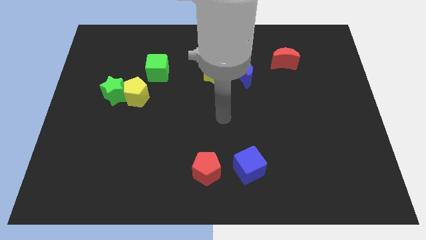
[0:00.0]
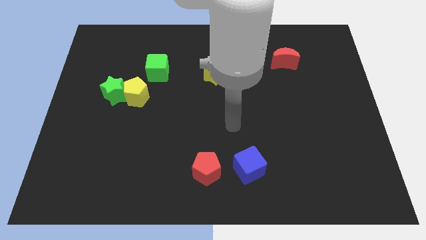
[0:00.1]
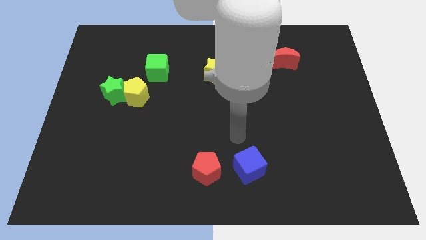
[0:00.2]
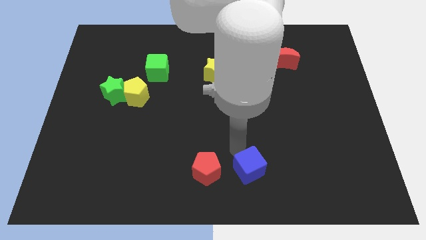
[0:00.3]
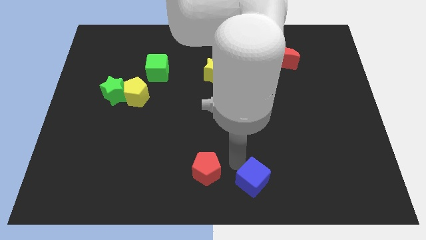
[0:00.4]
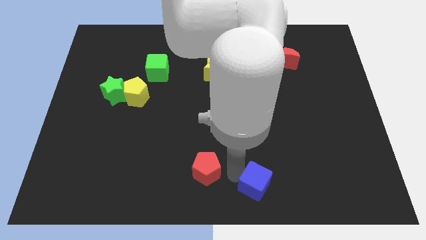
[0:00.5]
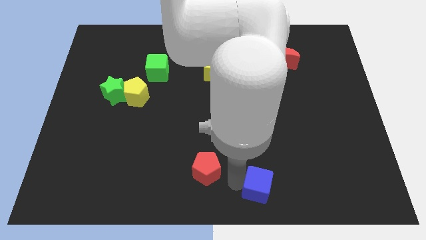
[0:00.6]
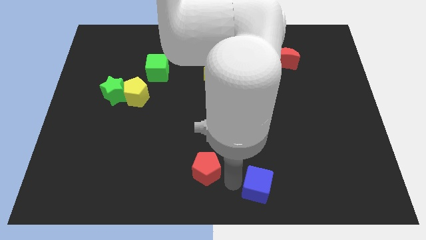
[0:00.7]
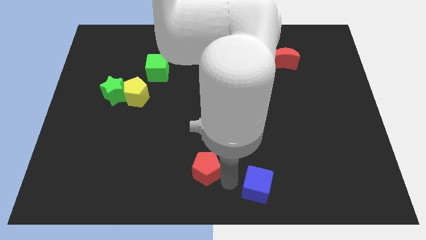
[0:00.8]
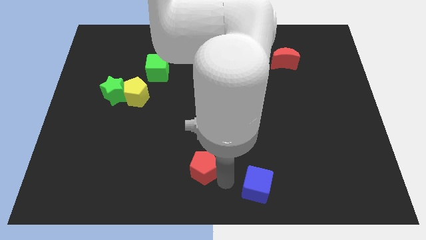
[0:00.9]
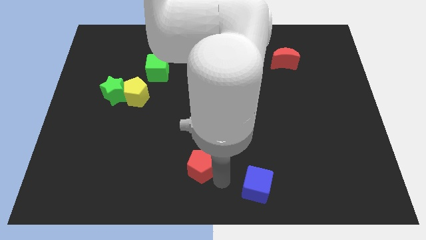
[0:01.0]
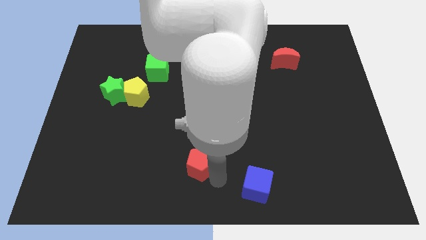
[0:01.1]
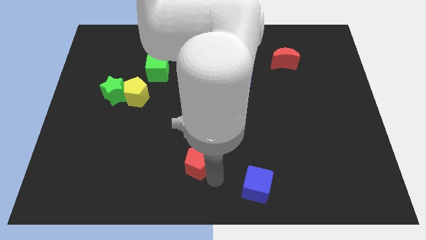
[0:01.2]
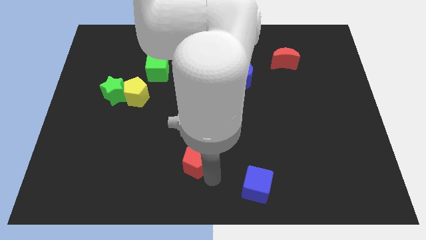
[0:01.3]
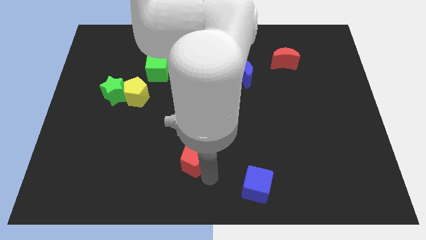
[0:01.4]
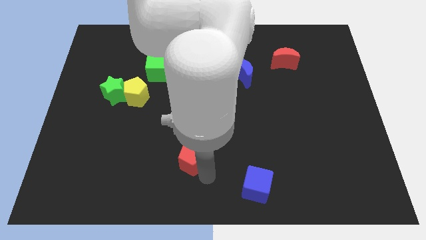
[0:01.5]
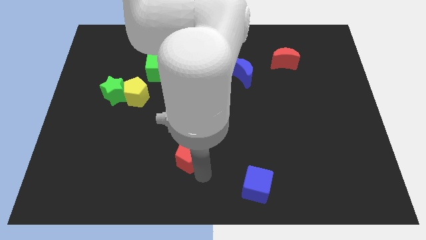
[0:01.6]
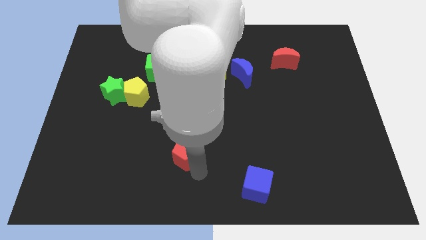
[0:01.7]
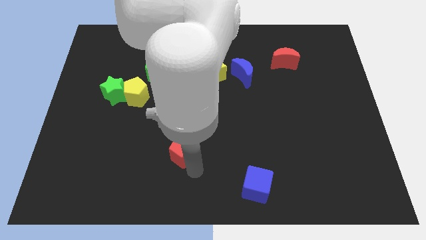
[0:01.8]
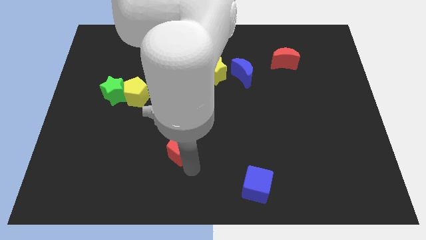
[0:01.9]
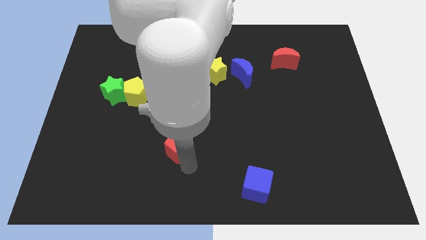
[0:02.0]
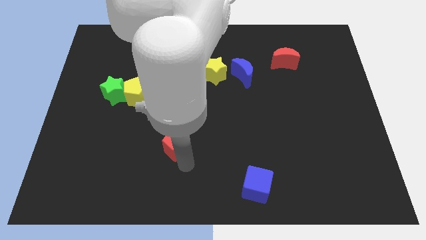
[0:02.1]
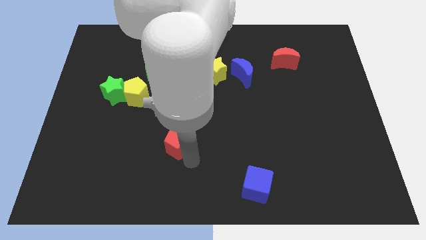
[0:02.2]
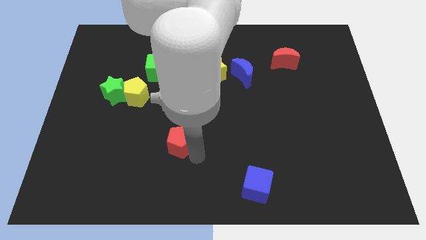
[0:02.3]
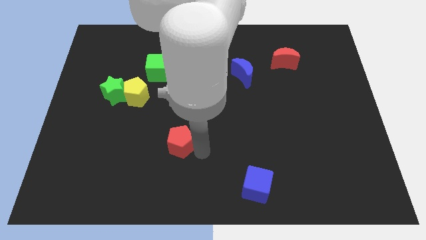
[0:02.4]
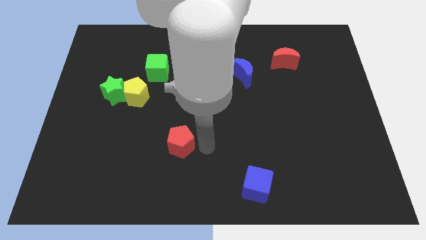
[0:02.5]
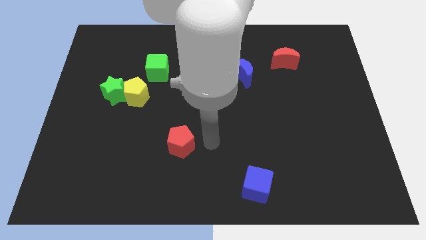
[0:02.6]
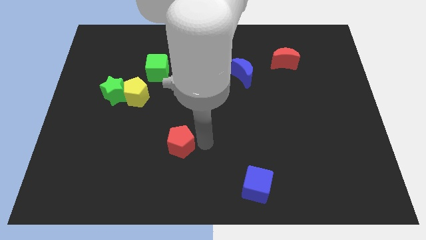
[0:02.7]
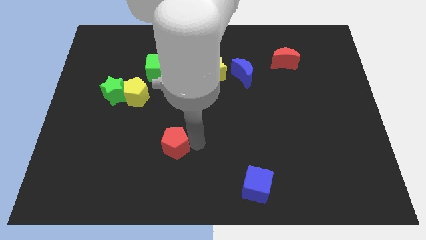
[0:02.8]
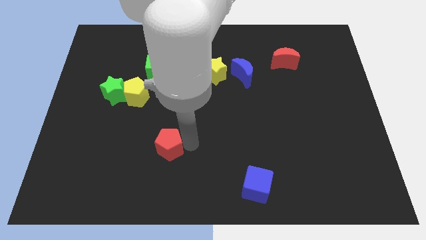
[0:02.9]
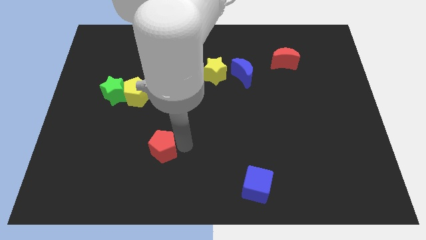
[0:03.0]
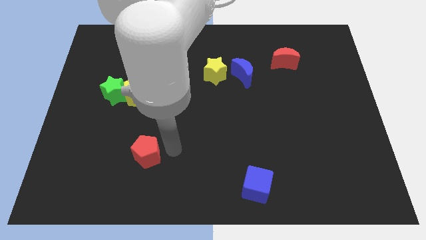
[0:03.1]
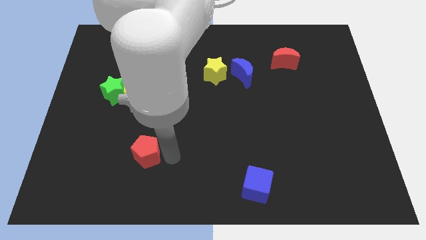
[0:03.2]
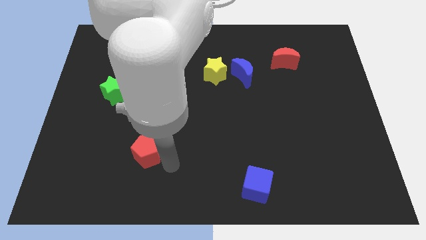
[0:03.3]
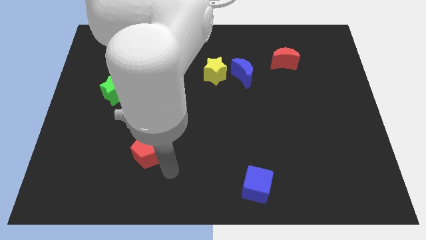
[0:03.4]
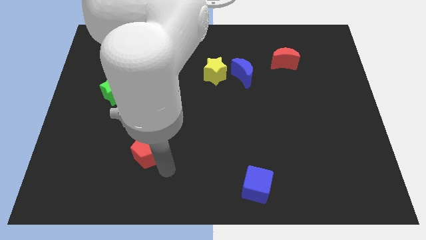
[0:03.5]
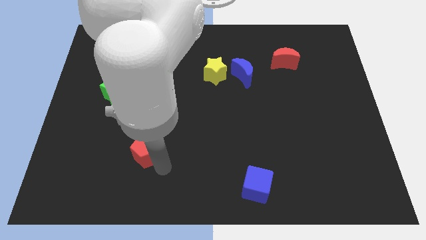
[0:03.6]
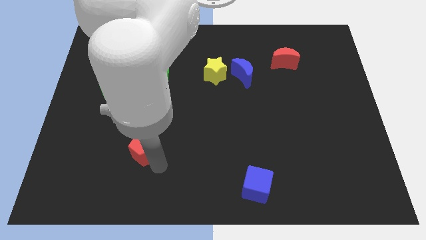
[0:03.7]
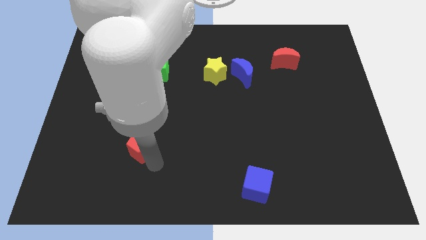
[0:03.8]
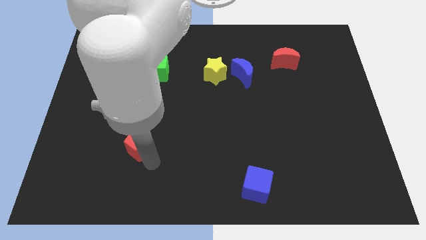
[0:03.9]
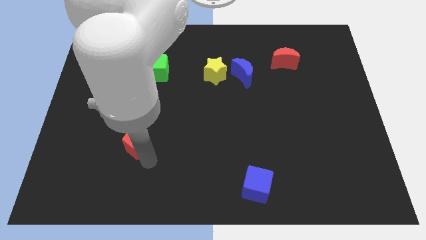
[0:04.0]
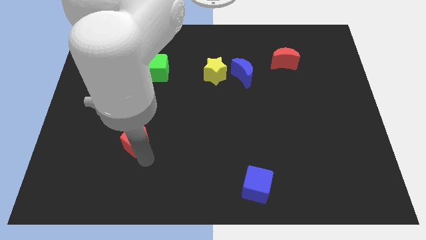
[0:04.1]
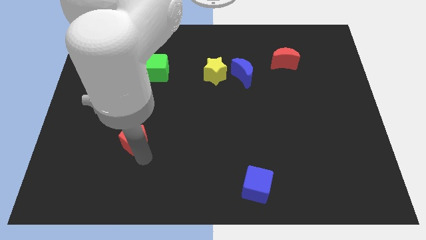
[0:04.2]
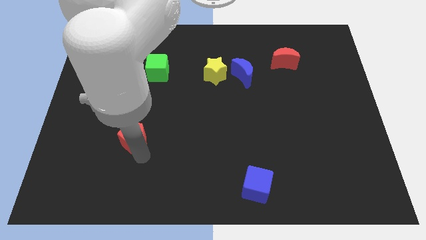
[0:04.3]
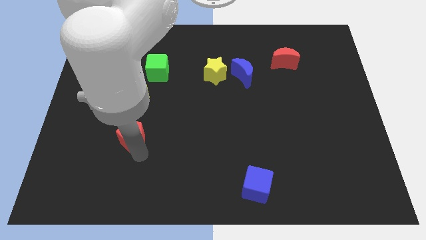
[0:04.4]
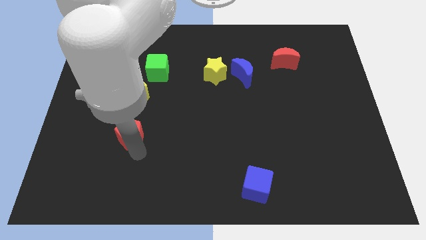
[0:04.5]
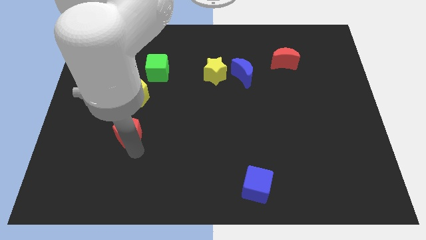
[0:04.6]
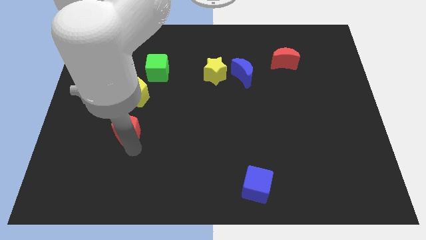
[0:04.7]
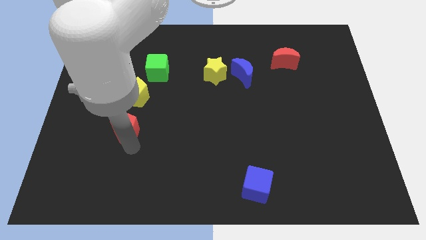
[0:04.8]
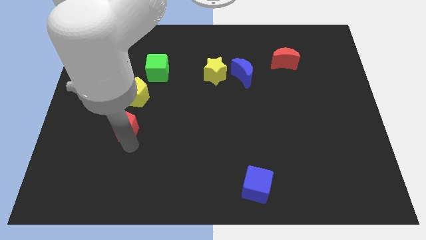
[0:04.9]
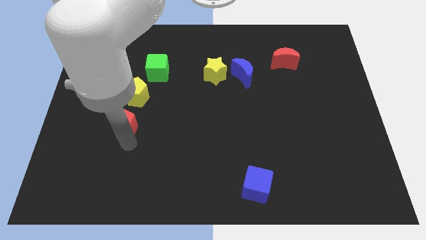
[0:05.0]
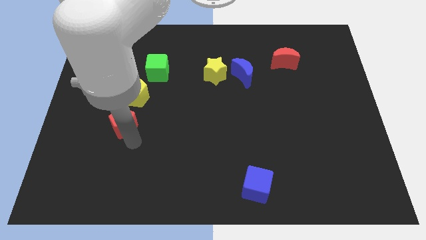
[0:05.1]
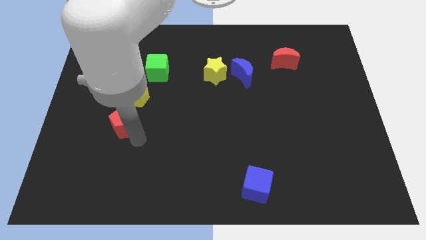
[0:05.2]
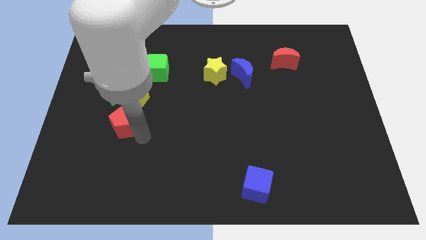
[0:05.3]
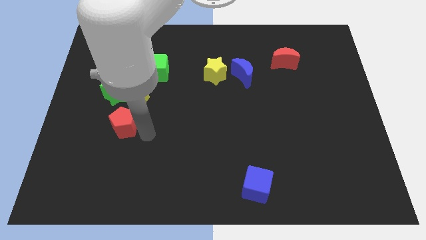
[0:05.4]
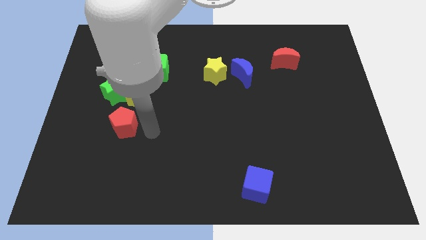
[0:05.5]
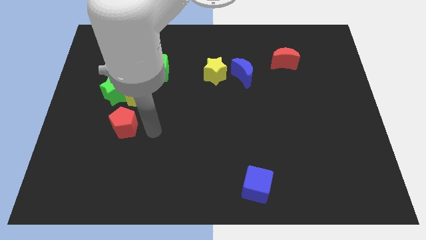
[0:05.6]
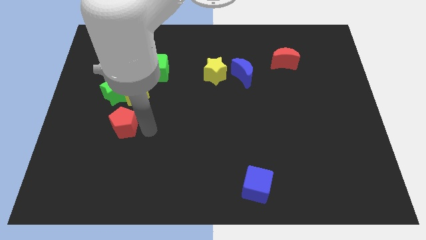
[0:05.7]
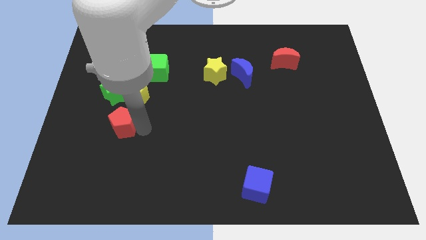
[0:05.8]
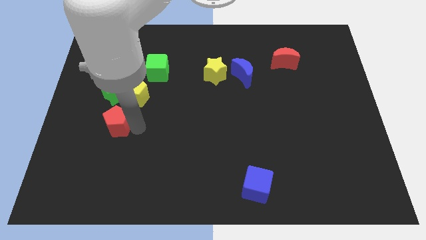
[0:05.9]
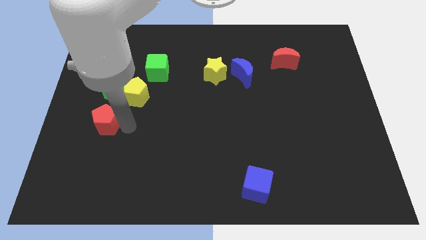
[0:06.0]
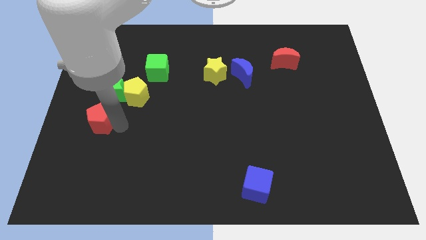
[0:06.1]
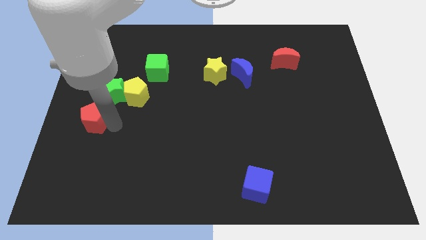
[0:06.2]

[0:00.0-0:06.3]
move the red pentagon to the left side of the board
